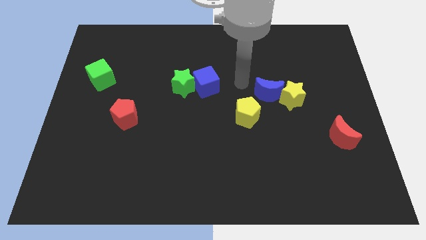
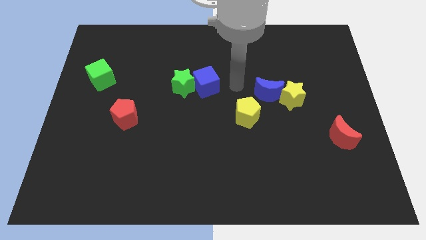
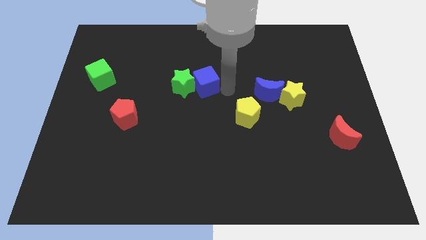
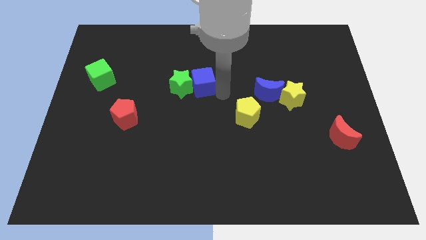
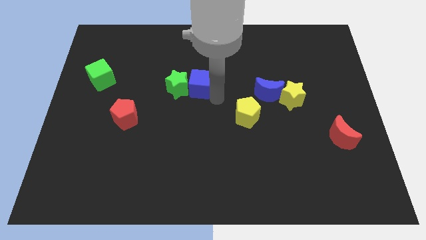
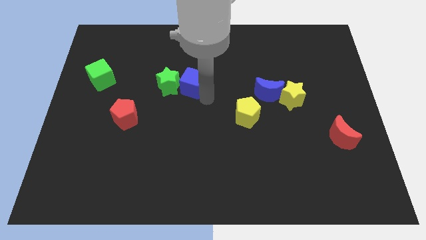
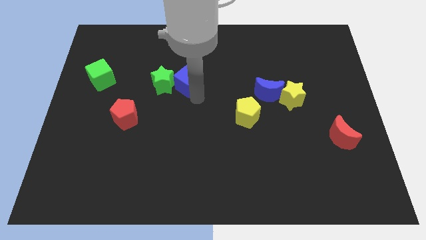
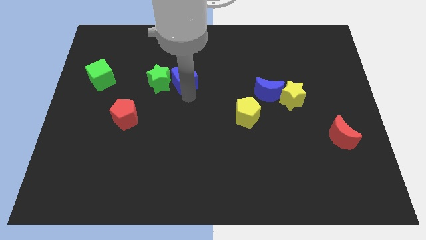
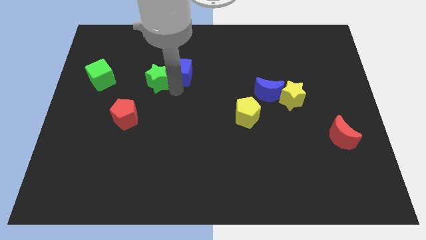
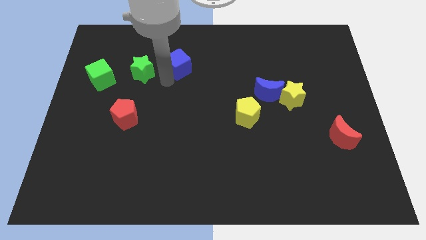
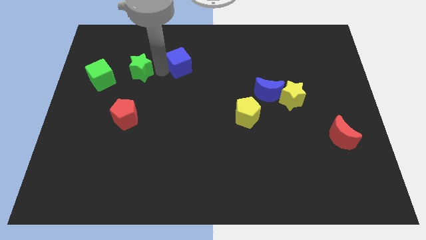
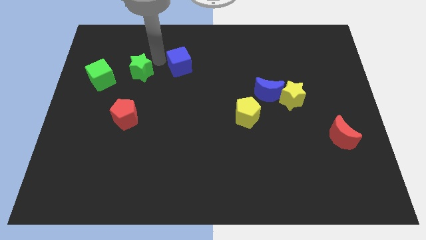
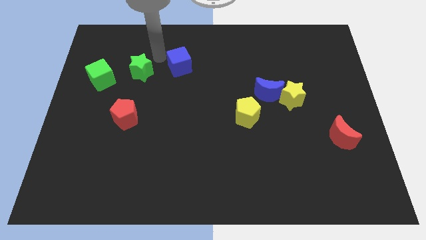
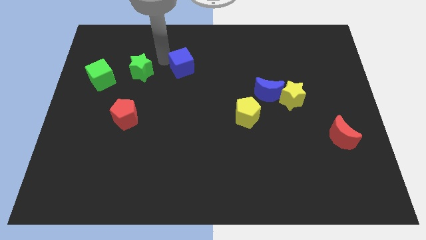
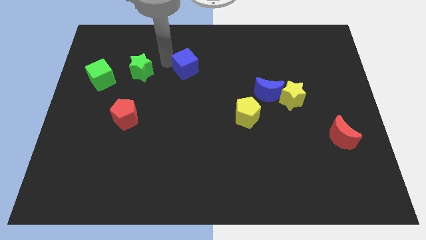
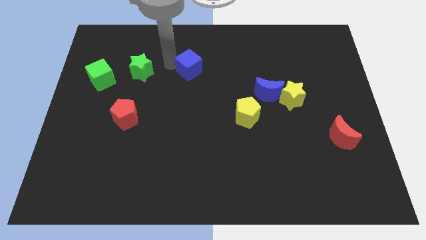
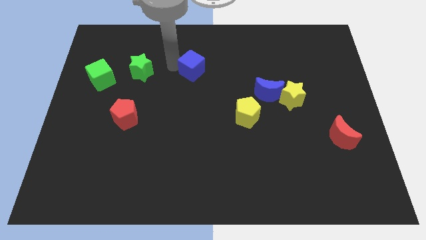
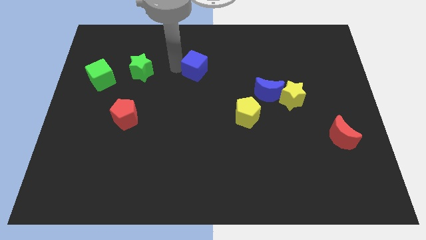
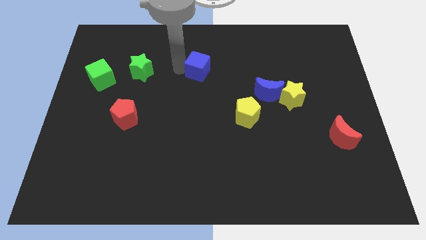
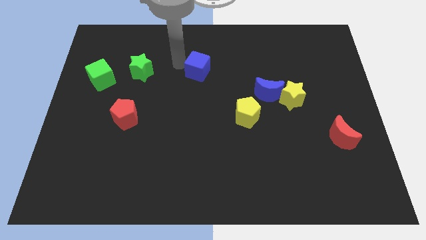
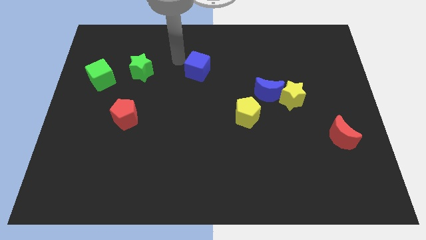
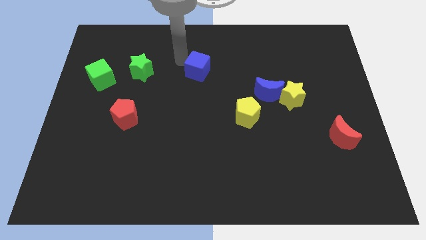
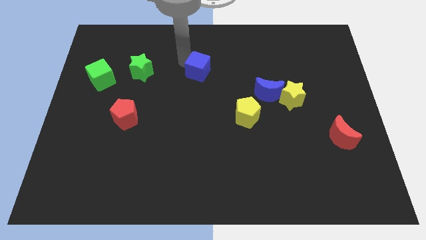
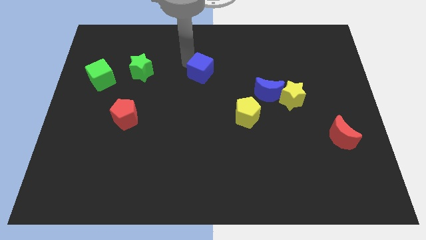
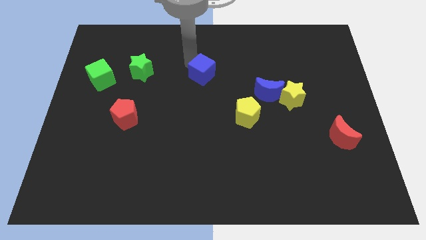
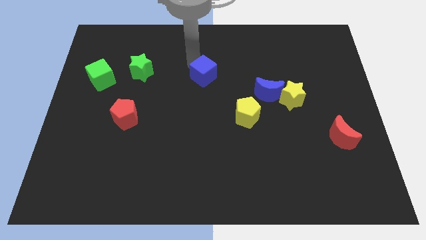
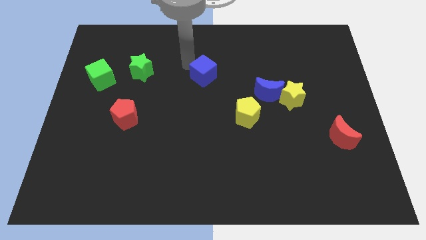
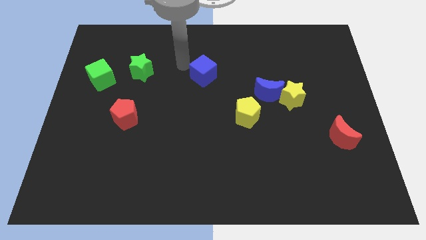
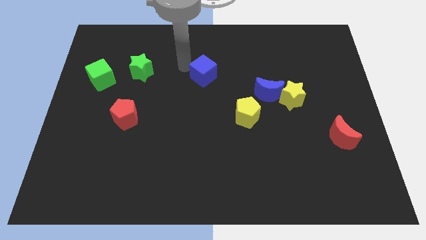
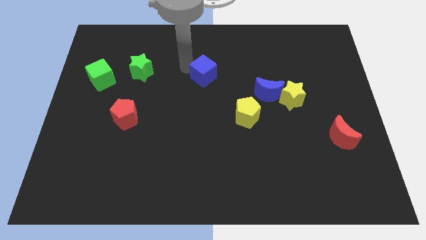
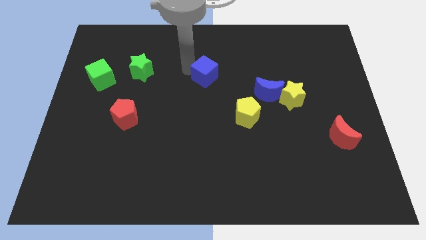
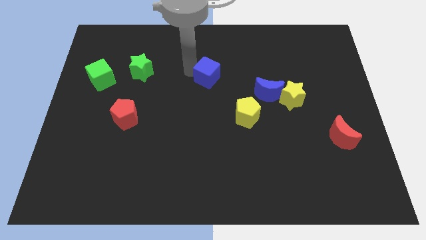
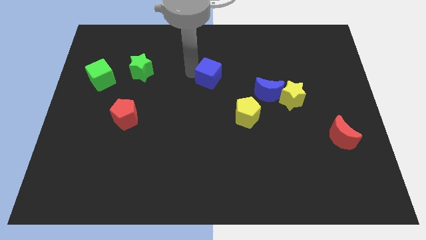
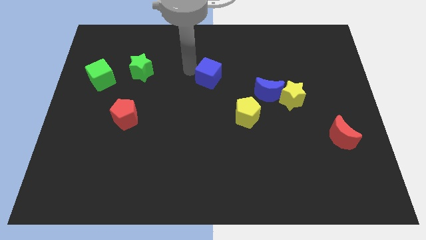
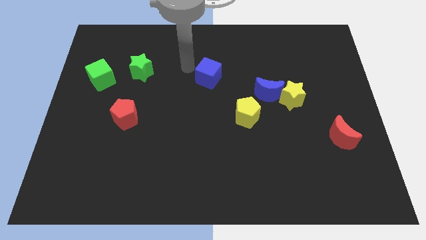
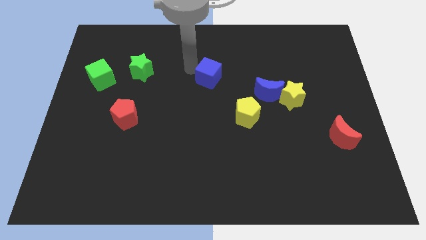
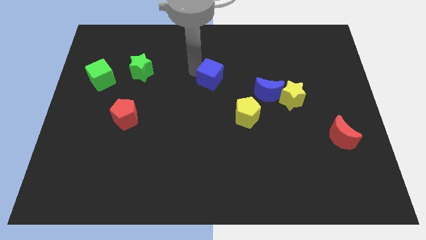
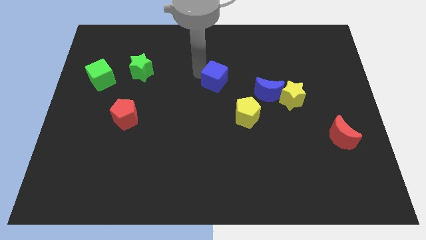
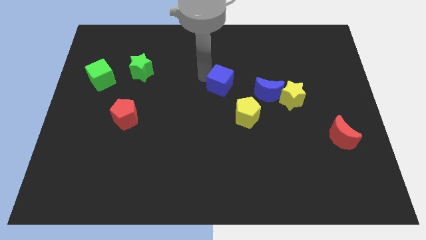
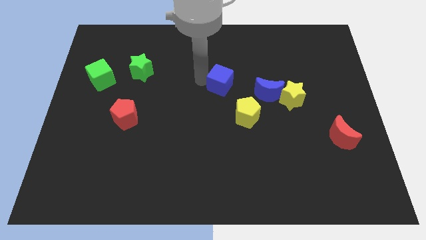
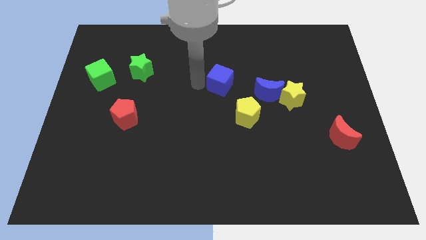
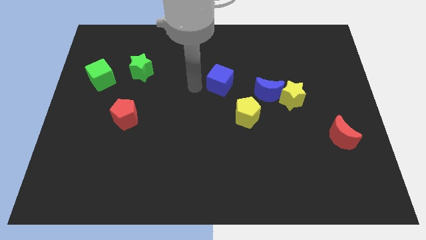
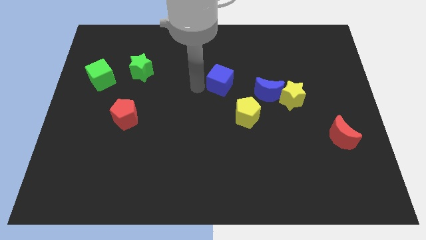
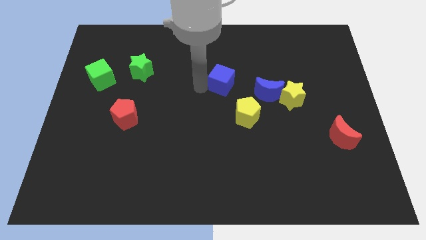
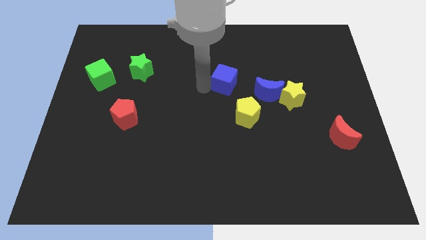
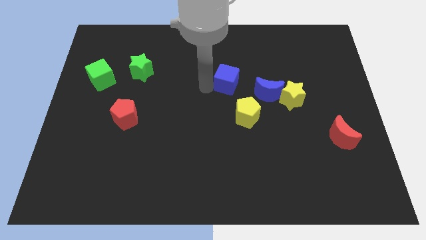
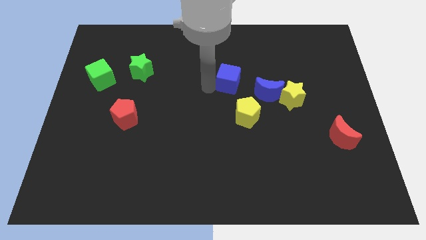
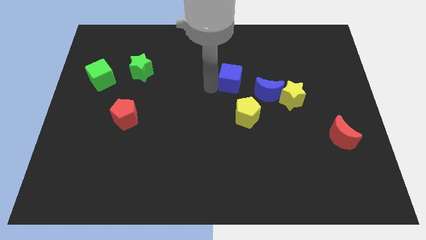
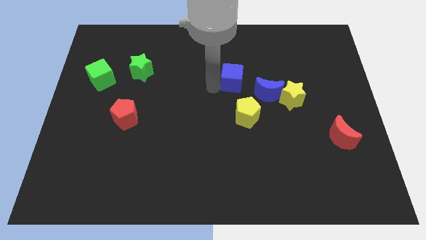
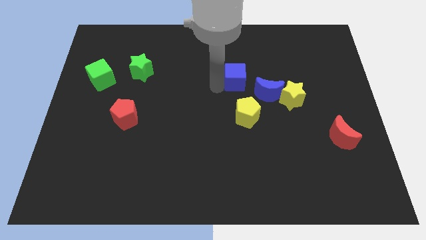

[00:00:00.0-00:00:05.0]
move the blue cube somewhat right

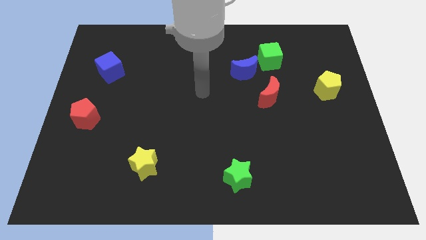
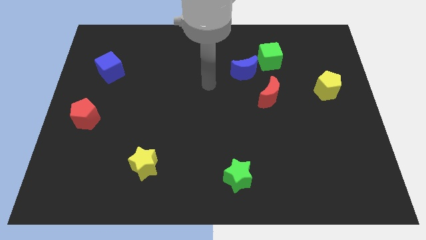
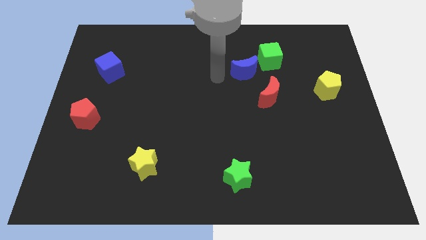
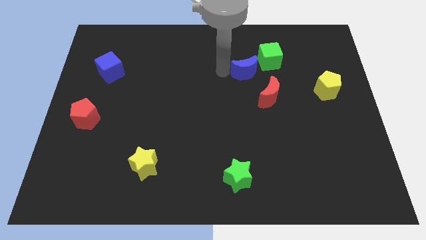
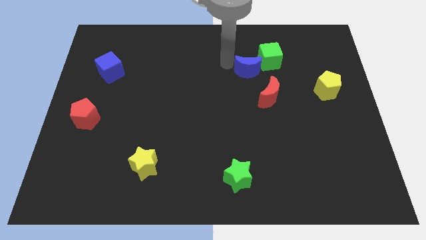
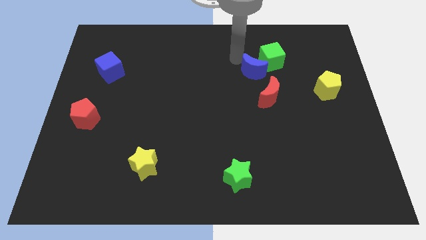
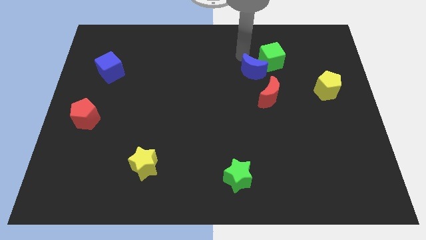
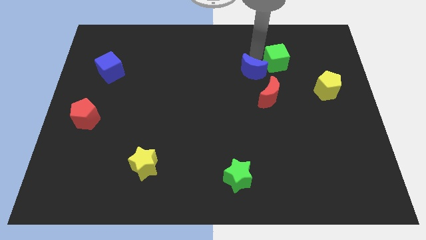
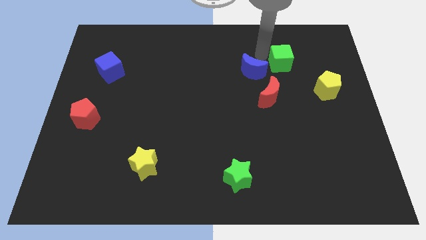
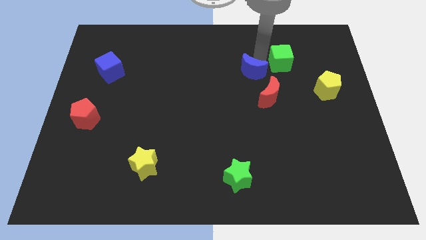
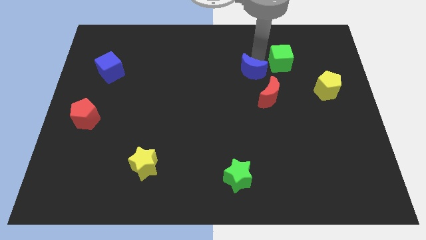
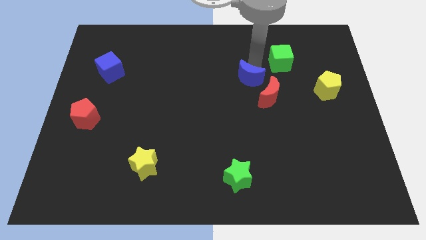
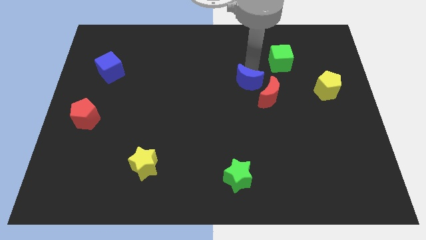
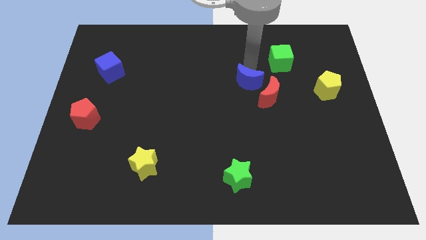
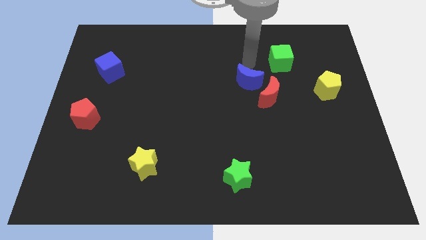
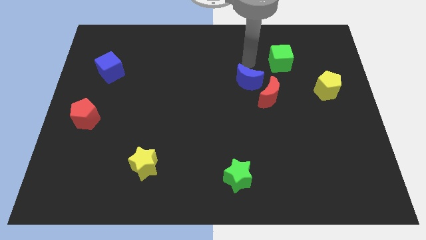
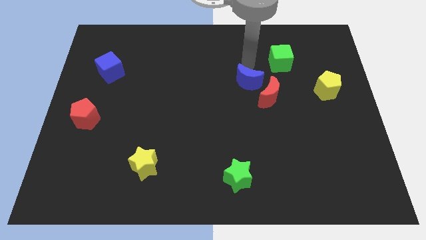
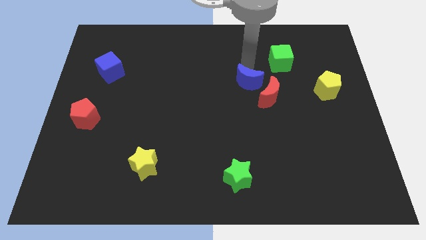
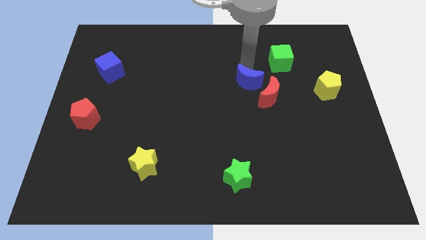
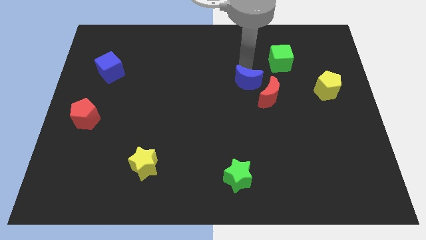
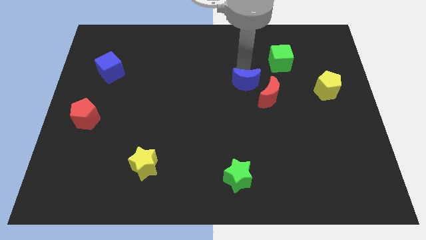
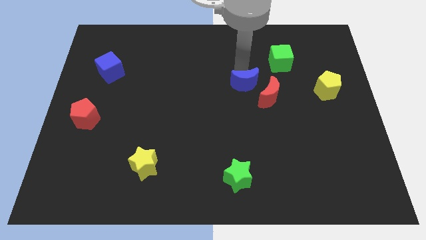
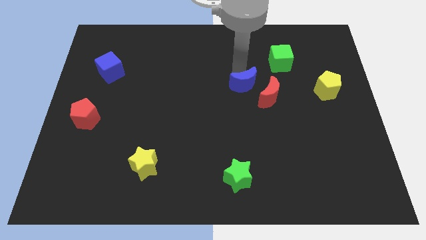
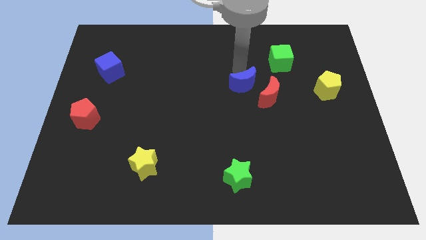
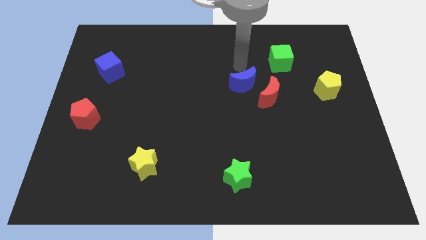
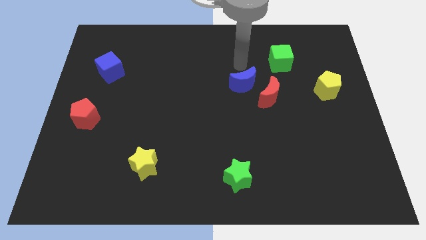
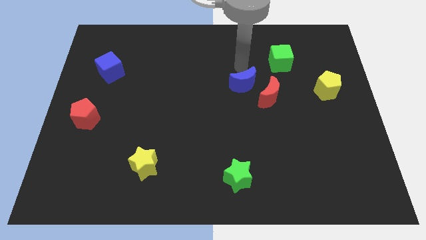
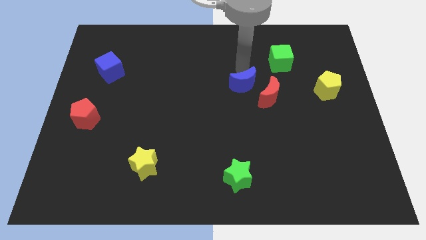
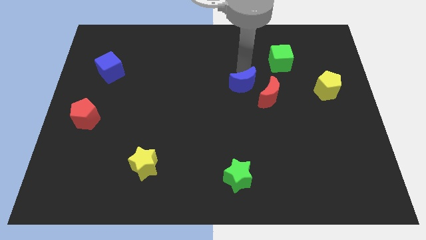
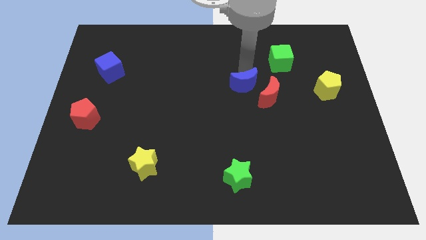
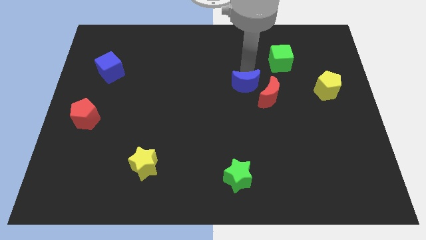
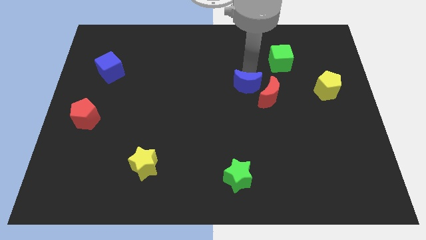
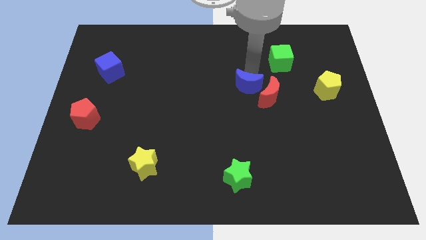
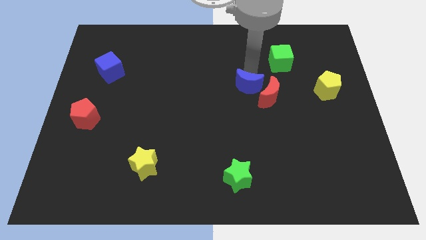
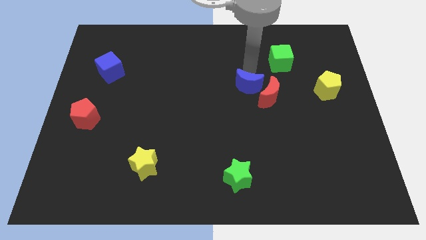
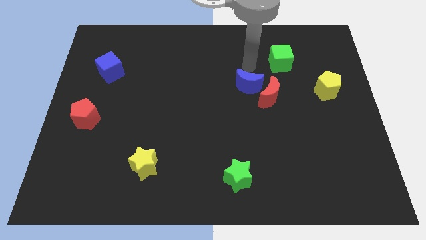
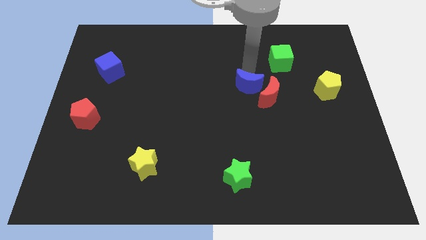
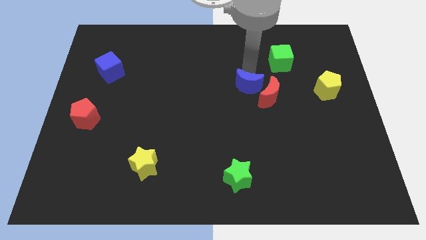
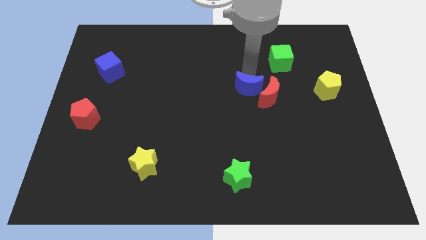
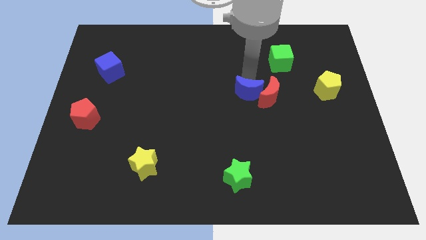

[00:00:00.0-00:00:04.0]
slightly push the blue moon down
